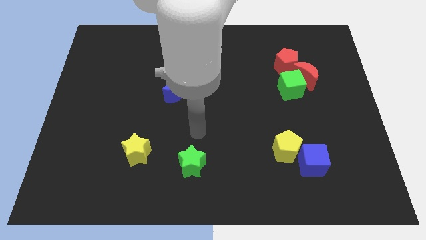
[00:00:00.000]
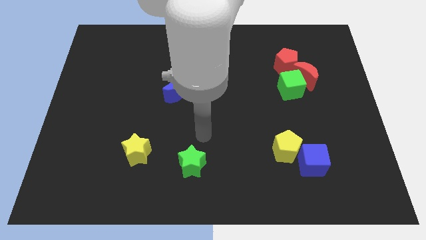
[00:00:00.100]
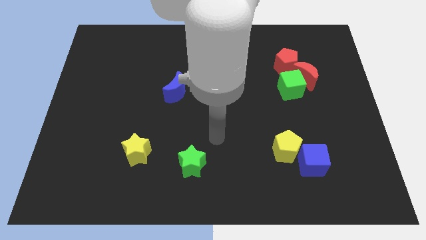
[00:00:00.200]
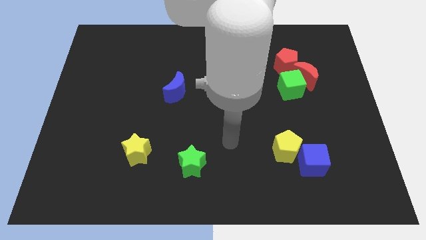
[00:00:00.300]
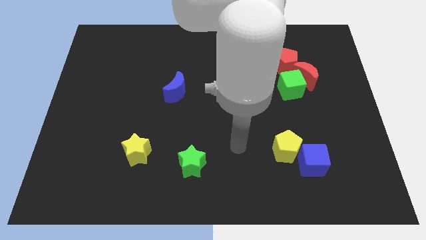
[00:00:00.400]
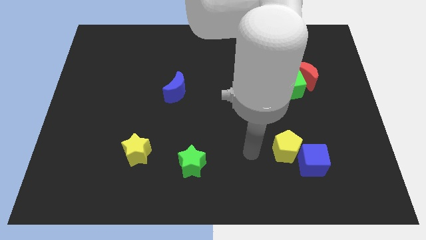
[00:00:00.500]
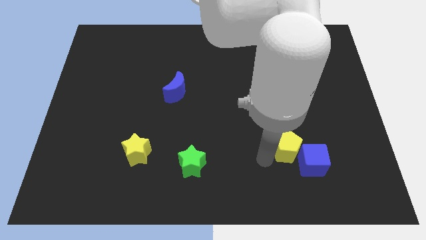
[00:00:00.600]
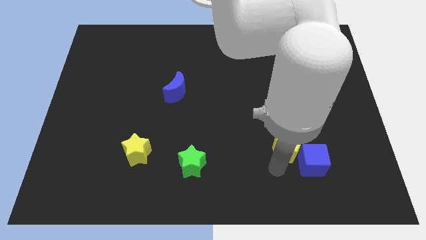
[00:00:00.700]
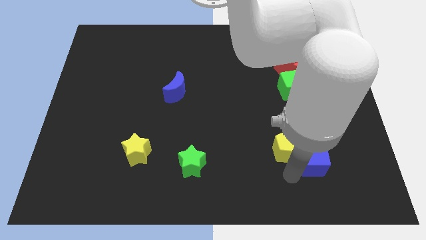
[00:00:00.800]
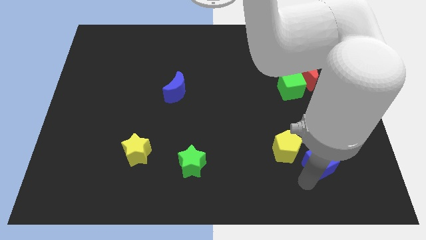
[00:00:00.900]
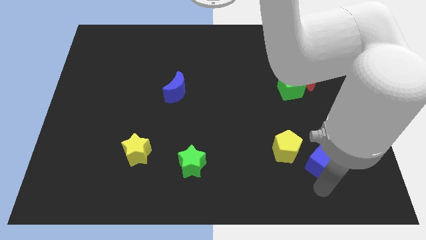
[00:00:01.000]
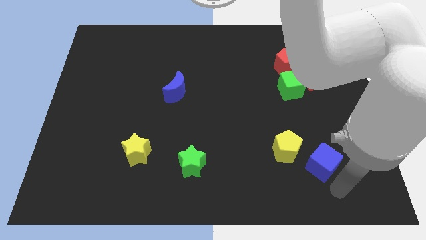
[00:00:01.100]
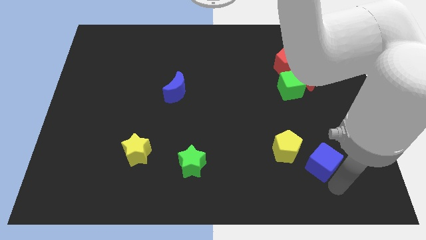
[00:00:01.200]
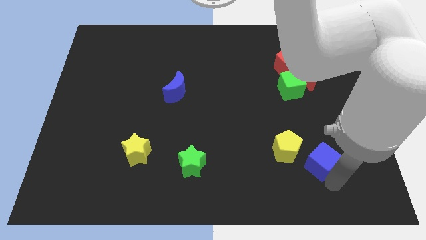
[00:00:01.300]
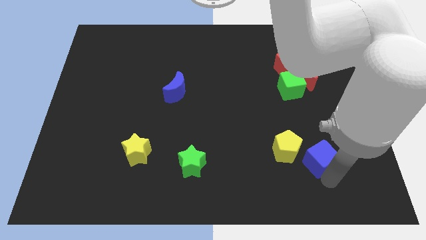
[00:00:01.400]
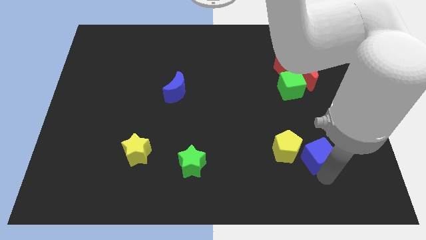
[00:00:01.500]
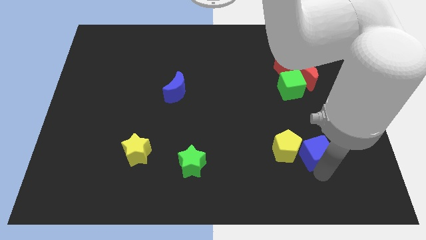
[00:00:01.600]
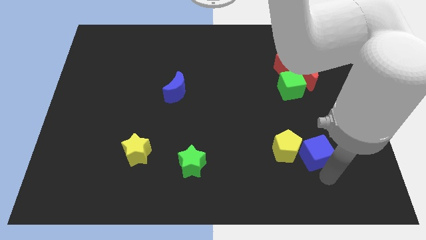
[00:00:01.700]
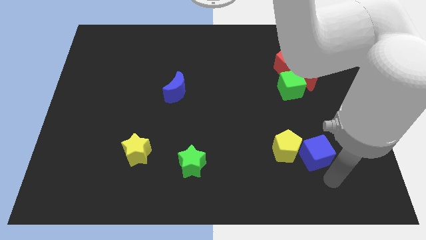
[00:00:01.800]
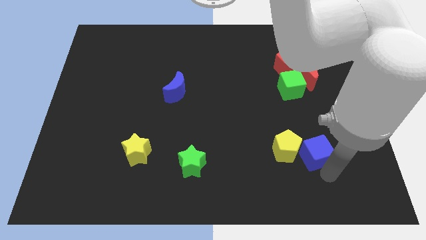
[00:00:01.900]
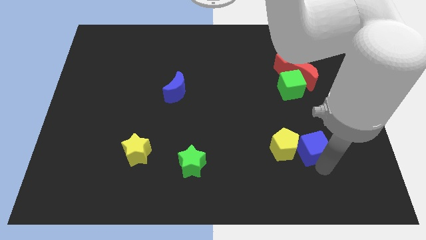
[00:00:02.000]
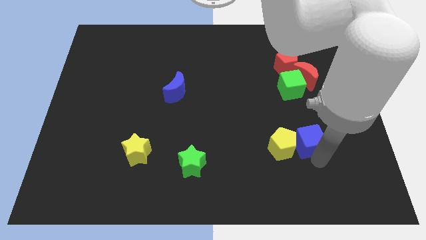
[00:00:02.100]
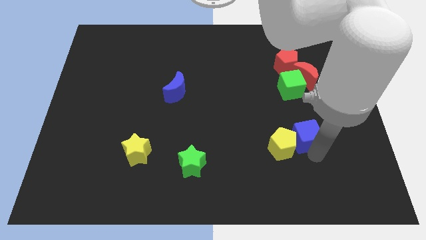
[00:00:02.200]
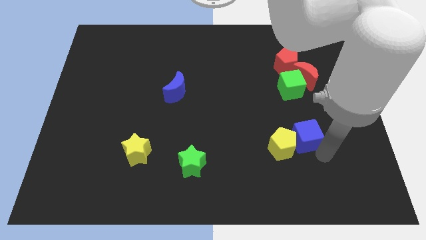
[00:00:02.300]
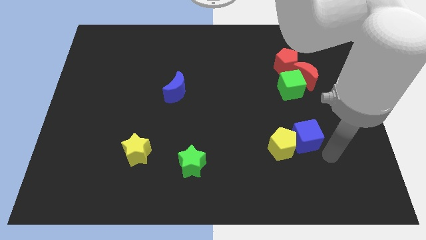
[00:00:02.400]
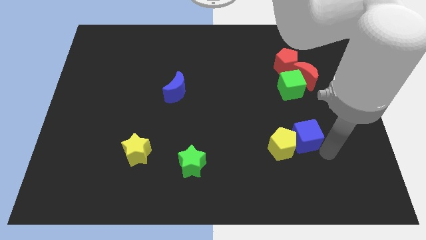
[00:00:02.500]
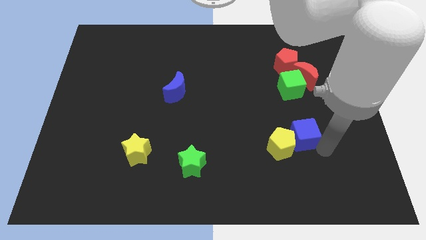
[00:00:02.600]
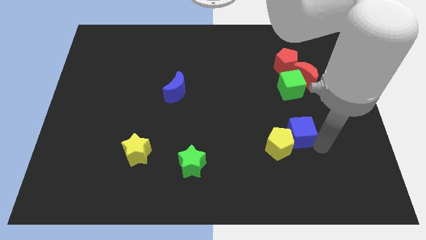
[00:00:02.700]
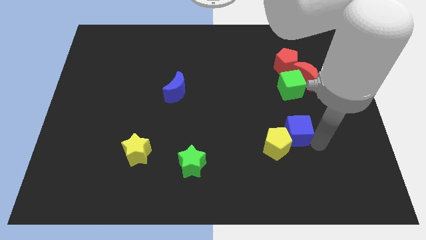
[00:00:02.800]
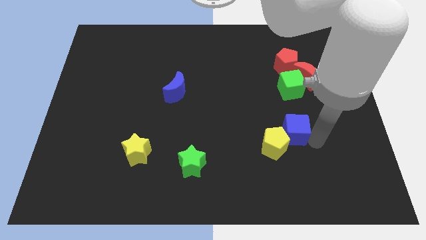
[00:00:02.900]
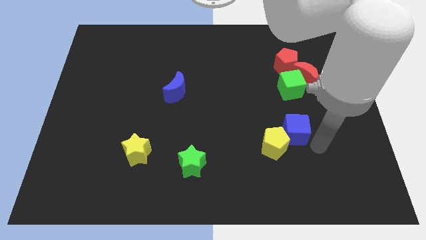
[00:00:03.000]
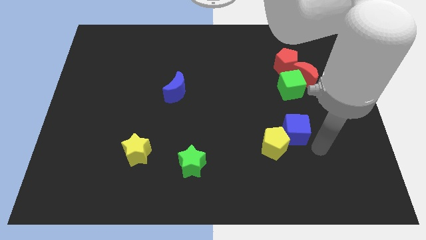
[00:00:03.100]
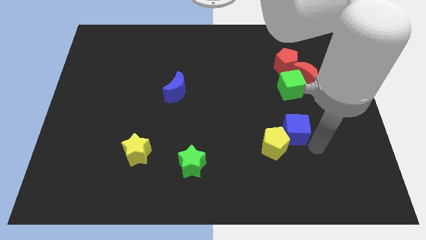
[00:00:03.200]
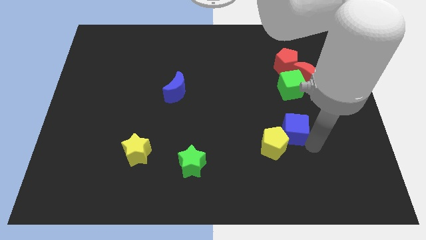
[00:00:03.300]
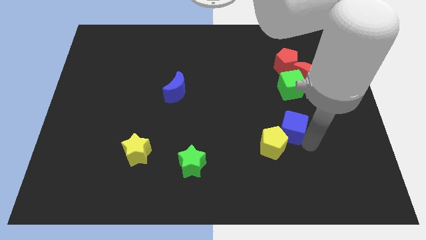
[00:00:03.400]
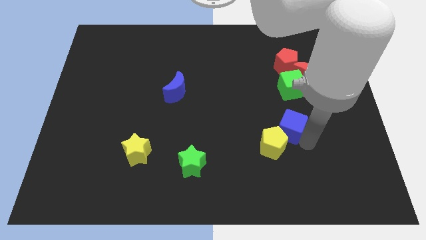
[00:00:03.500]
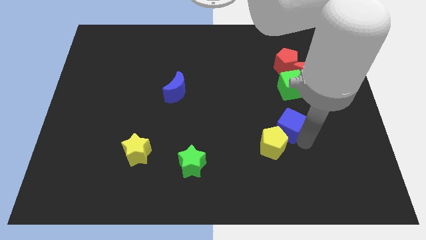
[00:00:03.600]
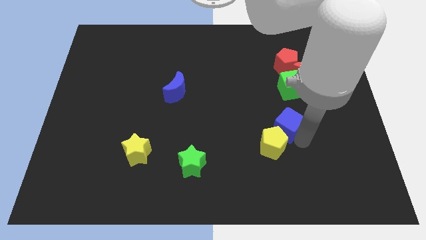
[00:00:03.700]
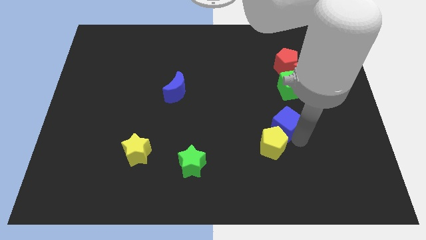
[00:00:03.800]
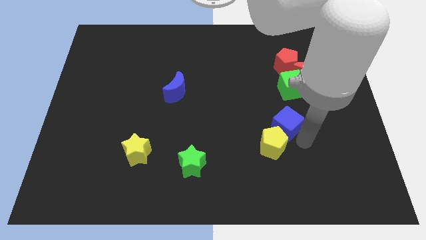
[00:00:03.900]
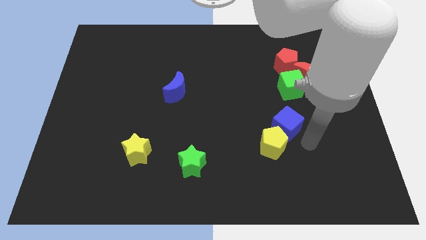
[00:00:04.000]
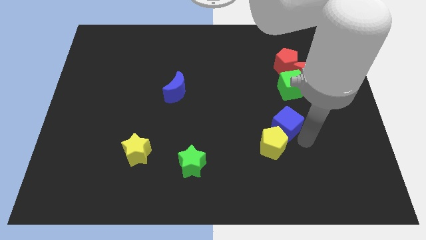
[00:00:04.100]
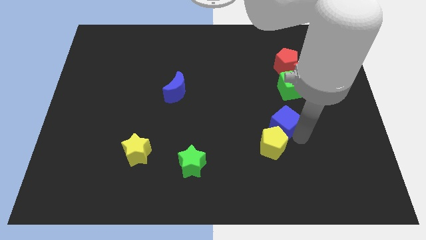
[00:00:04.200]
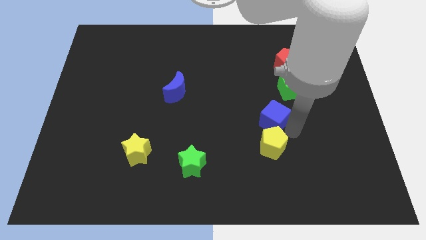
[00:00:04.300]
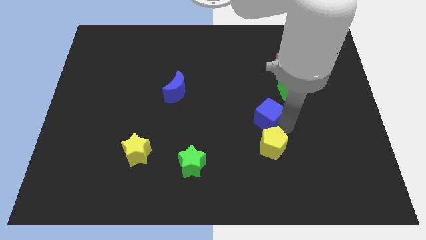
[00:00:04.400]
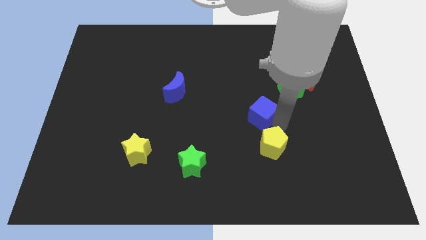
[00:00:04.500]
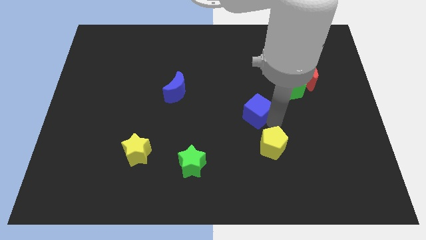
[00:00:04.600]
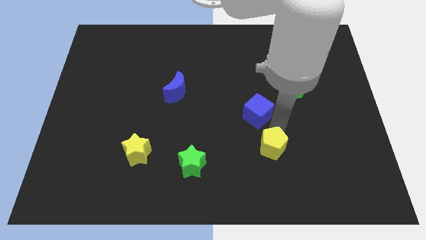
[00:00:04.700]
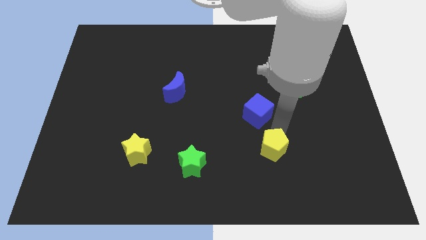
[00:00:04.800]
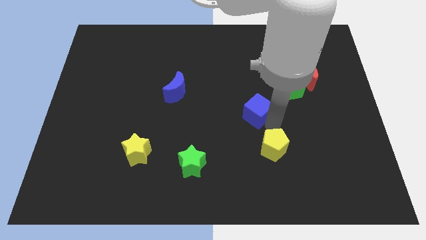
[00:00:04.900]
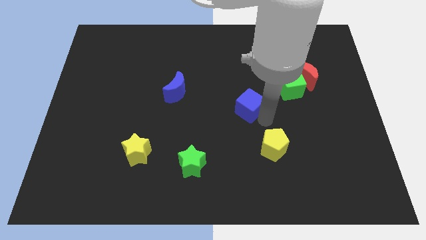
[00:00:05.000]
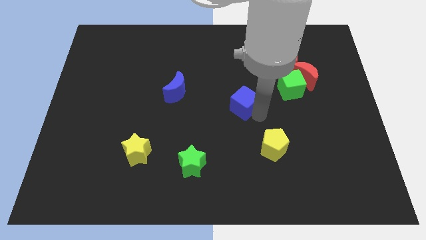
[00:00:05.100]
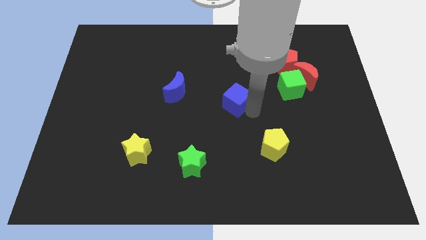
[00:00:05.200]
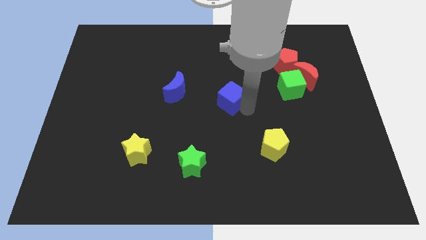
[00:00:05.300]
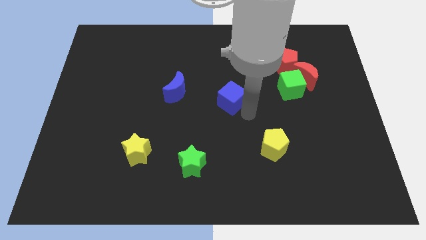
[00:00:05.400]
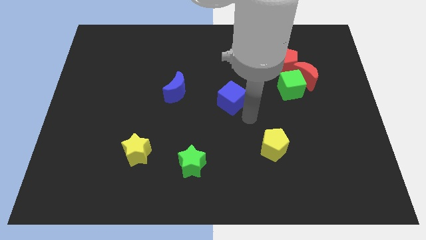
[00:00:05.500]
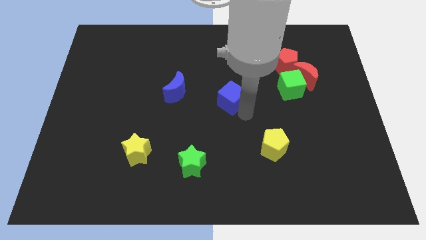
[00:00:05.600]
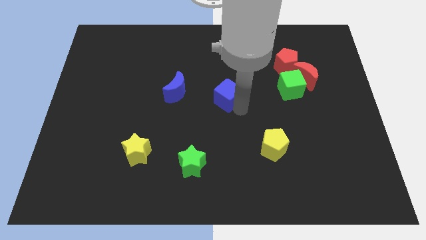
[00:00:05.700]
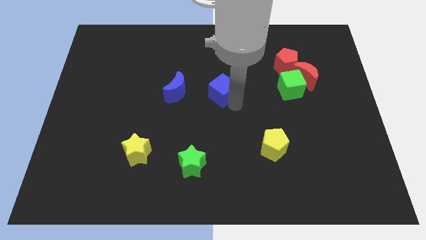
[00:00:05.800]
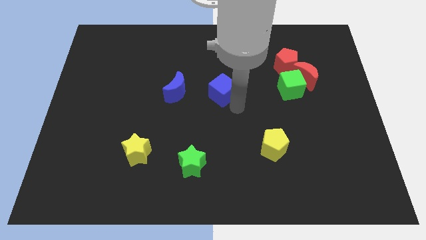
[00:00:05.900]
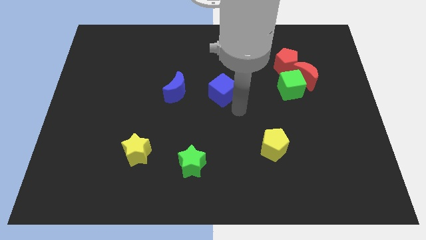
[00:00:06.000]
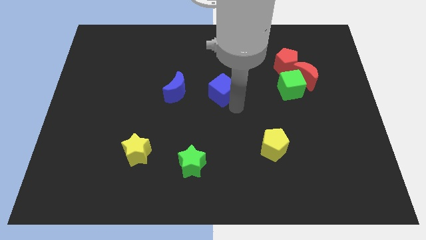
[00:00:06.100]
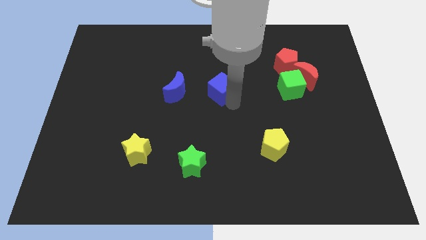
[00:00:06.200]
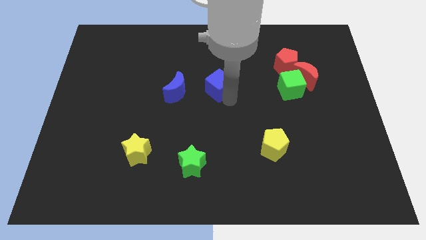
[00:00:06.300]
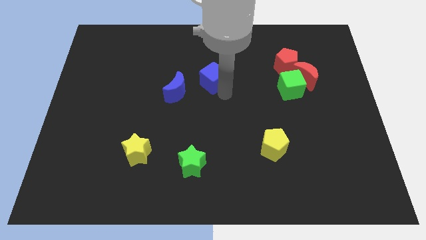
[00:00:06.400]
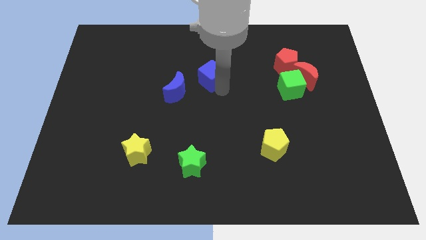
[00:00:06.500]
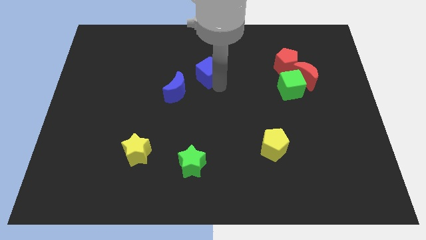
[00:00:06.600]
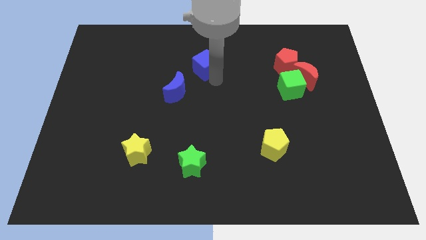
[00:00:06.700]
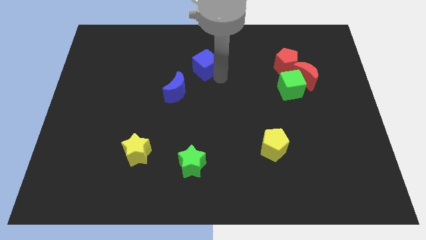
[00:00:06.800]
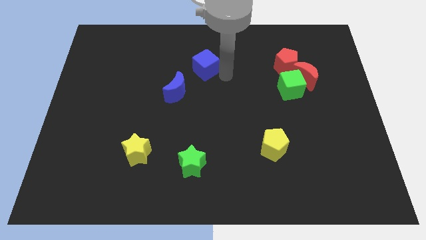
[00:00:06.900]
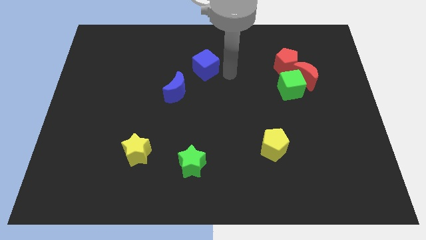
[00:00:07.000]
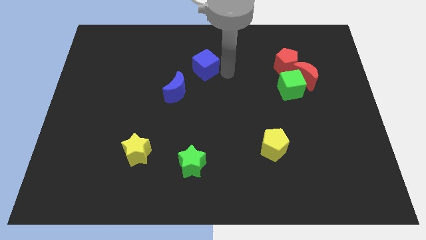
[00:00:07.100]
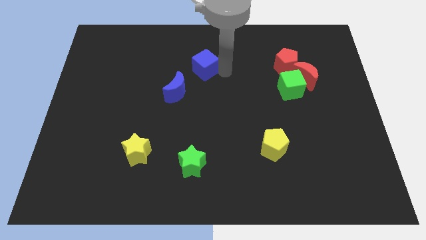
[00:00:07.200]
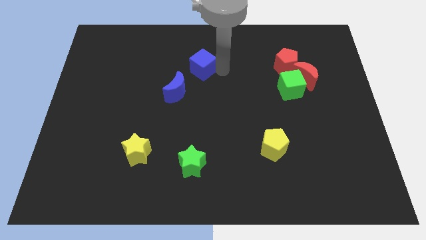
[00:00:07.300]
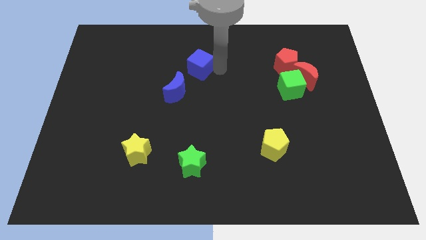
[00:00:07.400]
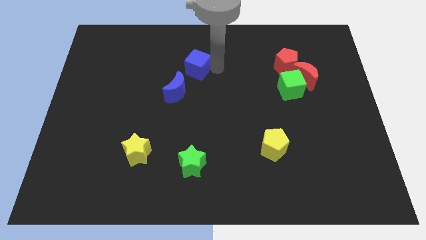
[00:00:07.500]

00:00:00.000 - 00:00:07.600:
slide the blue cube above the blue moon
